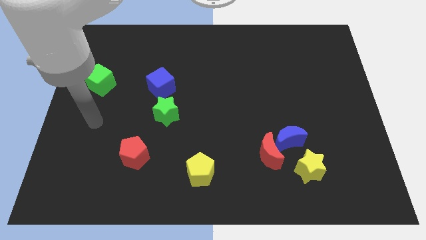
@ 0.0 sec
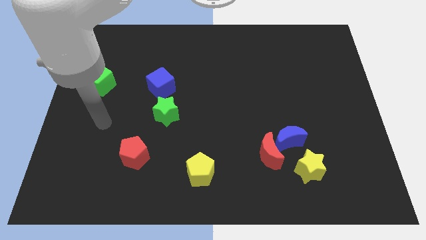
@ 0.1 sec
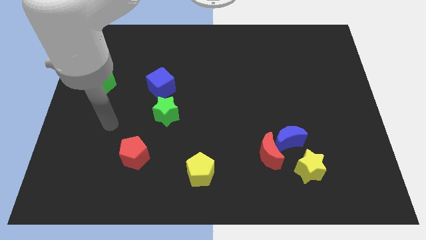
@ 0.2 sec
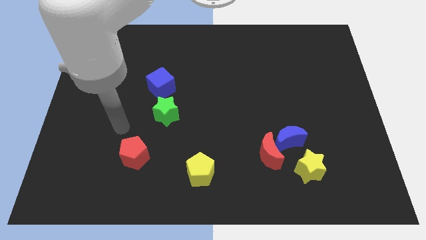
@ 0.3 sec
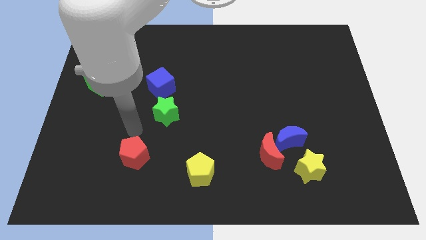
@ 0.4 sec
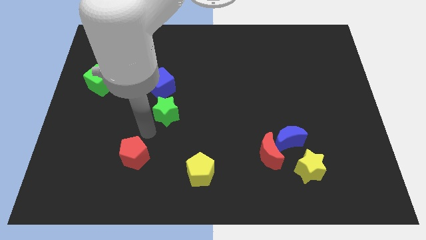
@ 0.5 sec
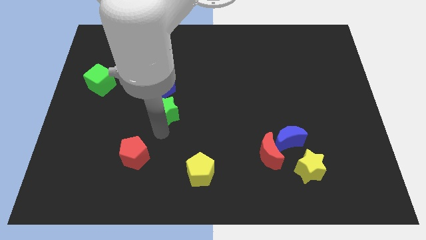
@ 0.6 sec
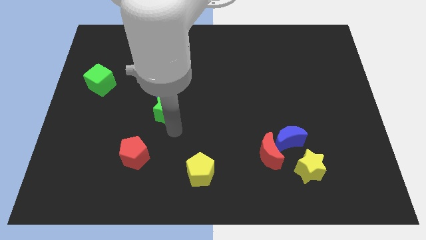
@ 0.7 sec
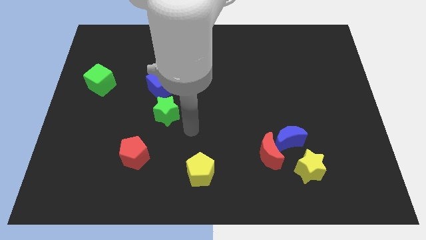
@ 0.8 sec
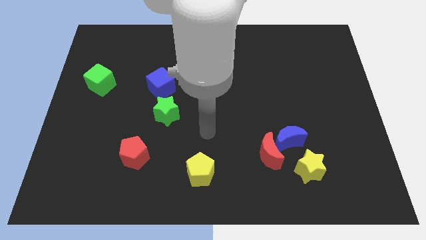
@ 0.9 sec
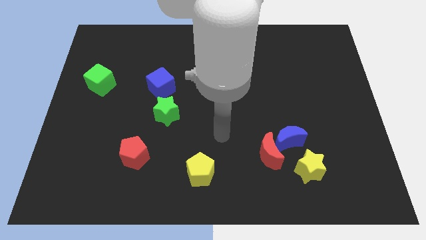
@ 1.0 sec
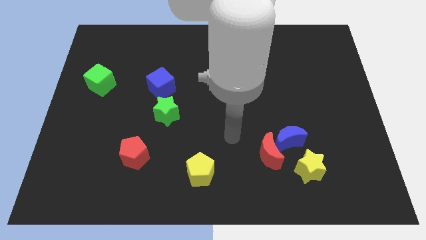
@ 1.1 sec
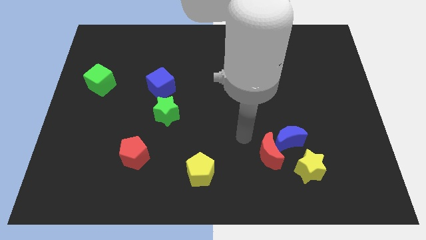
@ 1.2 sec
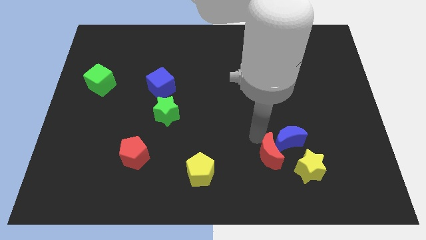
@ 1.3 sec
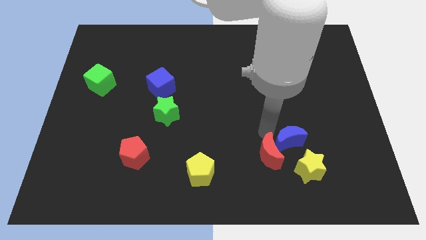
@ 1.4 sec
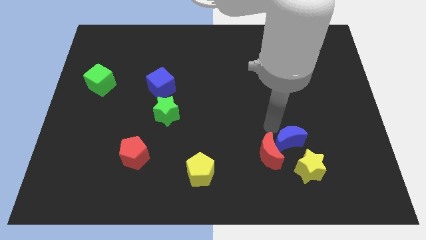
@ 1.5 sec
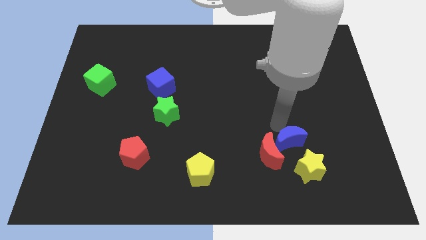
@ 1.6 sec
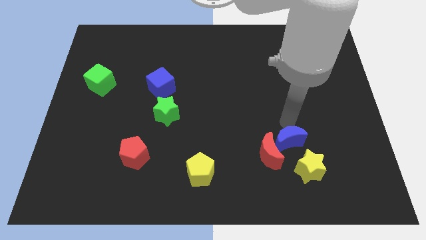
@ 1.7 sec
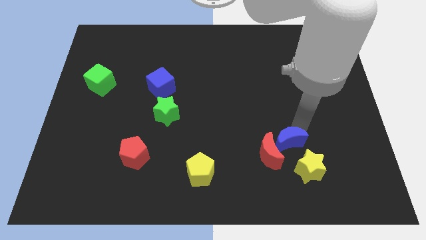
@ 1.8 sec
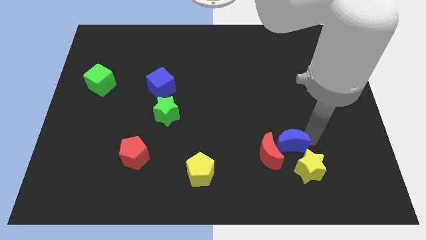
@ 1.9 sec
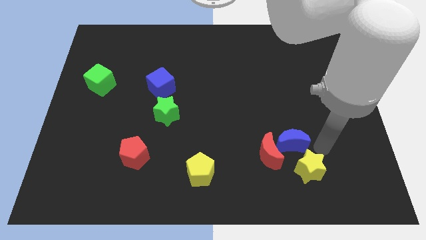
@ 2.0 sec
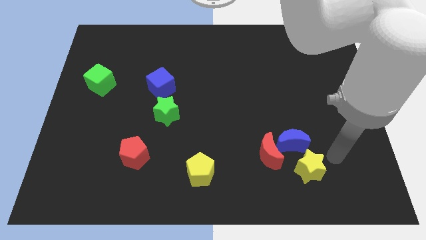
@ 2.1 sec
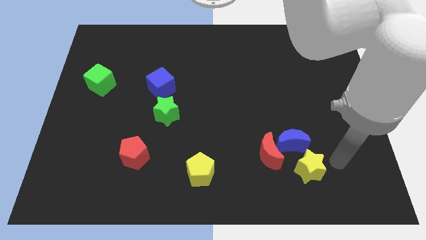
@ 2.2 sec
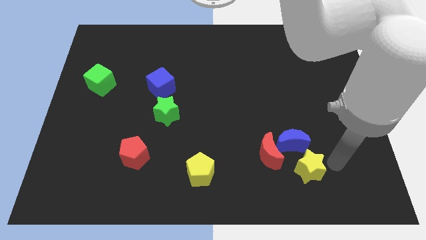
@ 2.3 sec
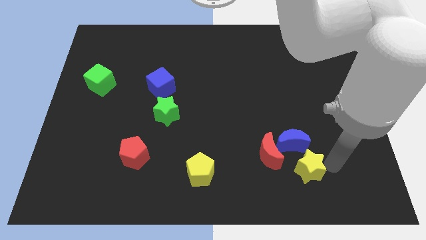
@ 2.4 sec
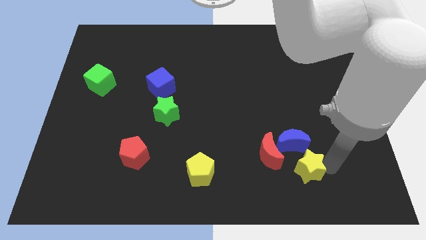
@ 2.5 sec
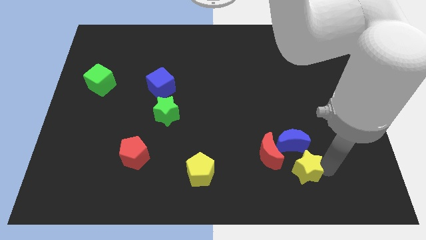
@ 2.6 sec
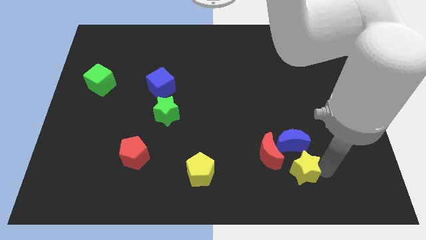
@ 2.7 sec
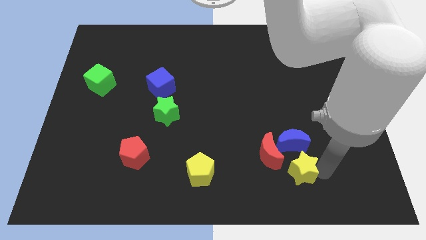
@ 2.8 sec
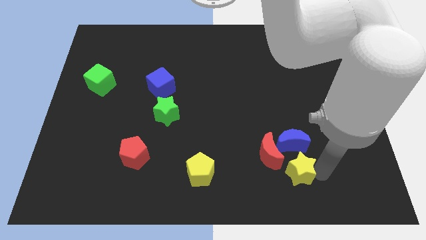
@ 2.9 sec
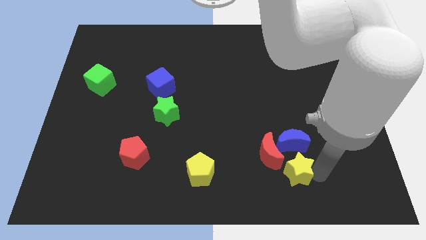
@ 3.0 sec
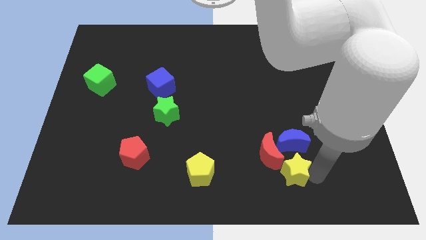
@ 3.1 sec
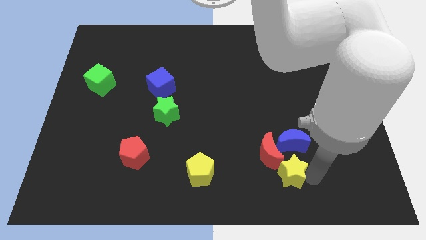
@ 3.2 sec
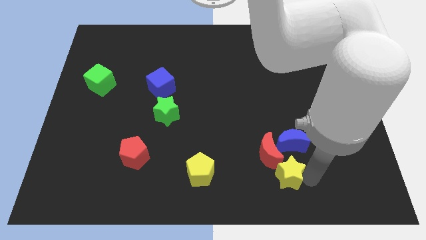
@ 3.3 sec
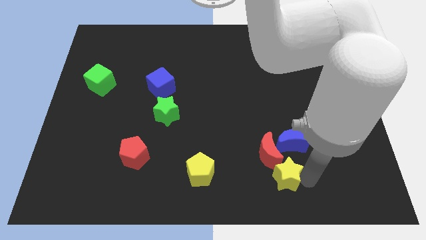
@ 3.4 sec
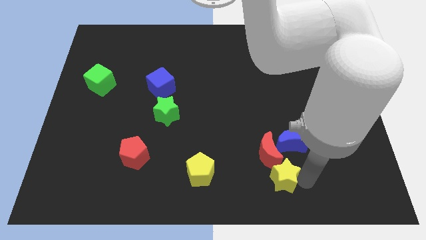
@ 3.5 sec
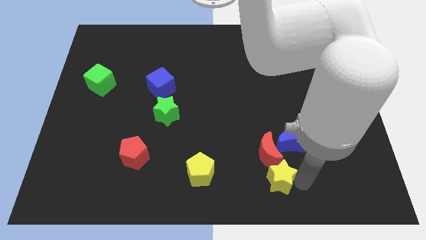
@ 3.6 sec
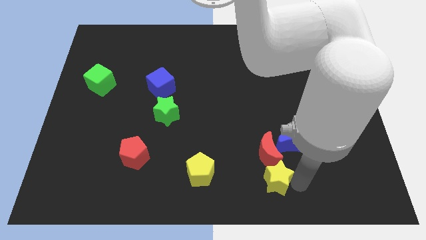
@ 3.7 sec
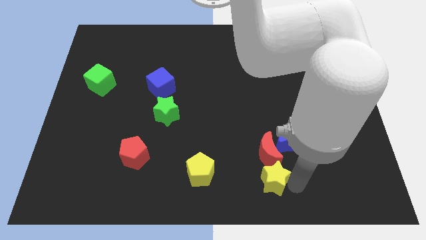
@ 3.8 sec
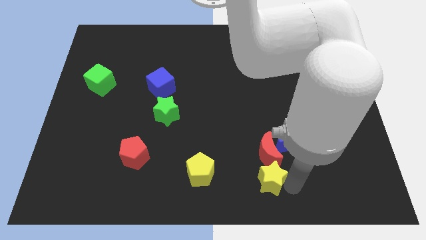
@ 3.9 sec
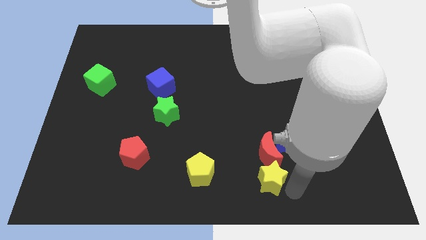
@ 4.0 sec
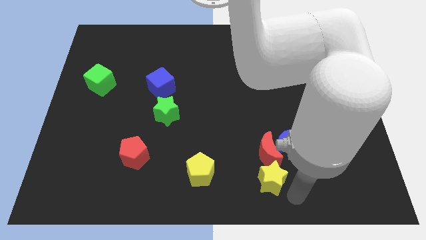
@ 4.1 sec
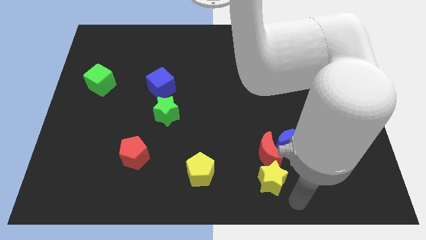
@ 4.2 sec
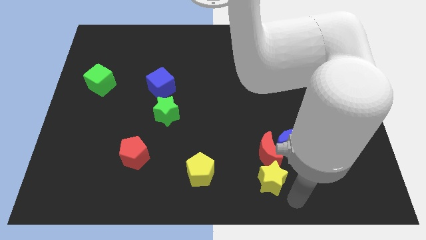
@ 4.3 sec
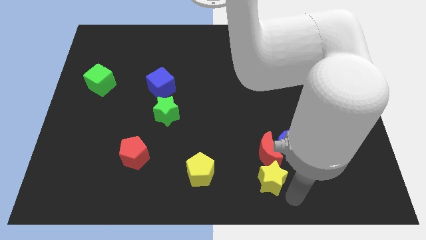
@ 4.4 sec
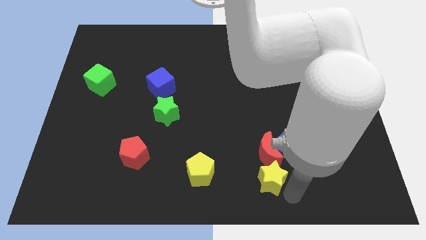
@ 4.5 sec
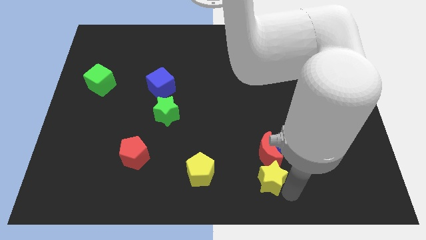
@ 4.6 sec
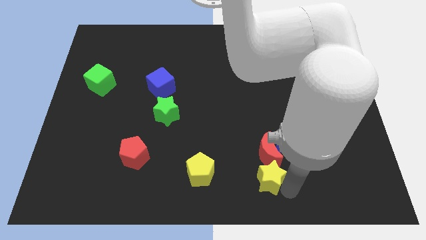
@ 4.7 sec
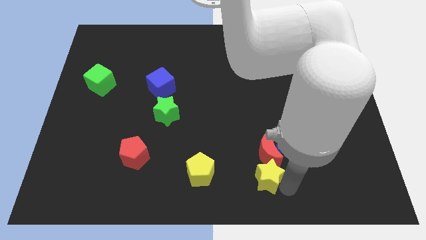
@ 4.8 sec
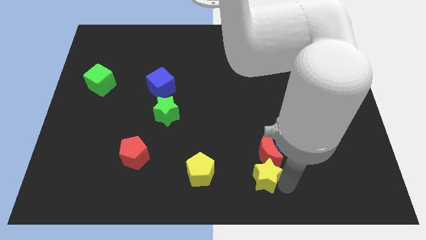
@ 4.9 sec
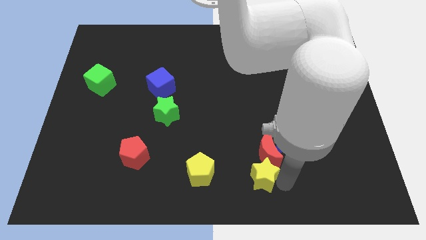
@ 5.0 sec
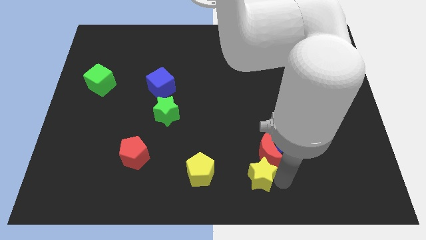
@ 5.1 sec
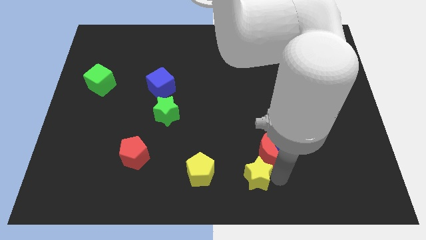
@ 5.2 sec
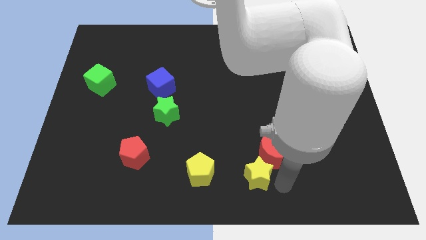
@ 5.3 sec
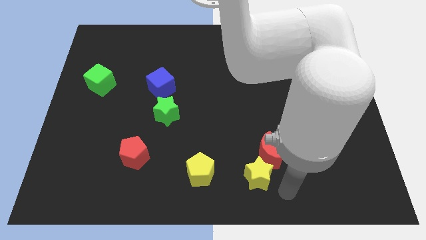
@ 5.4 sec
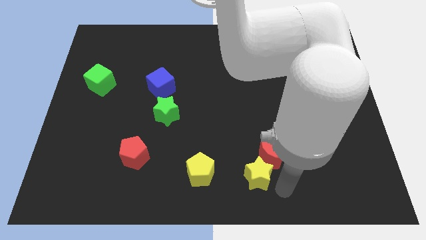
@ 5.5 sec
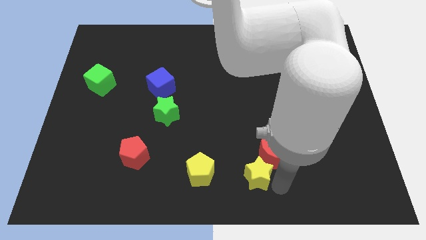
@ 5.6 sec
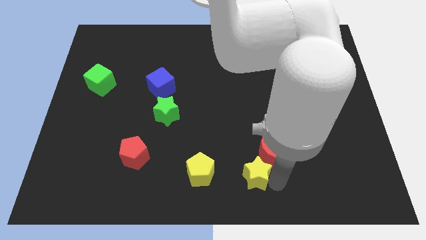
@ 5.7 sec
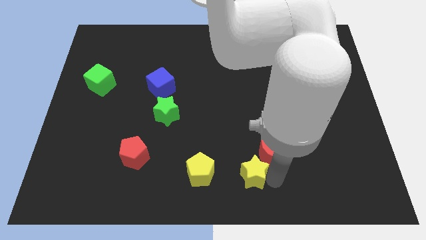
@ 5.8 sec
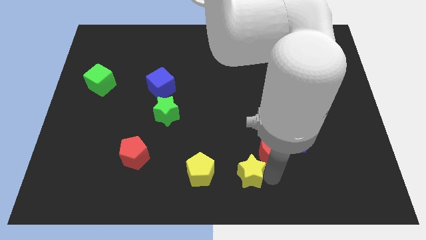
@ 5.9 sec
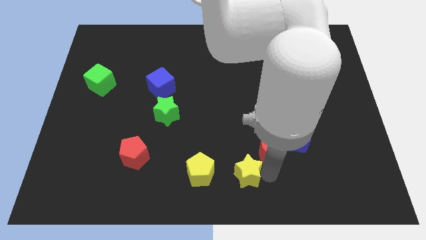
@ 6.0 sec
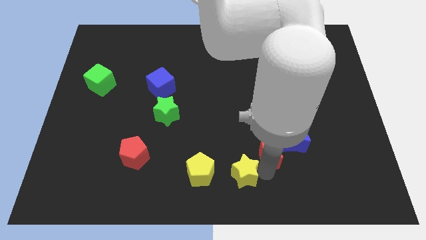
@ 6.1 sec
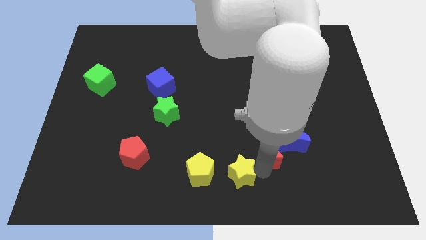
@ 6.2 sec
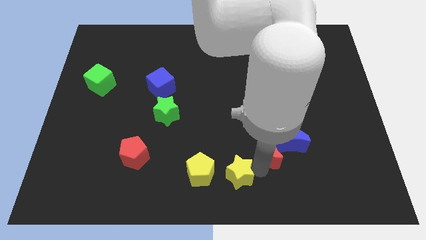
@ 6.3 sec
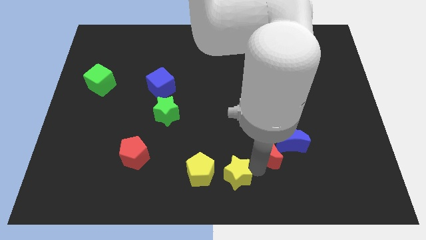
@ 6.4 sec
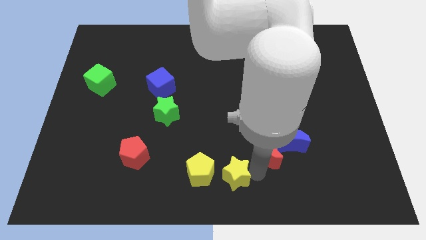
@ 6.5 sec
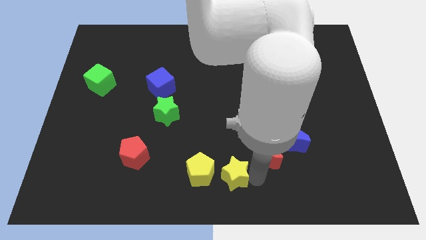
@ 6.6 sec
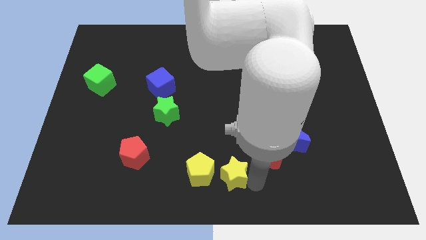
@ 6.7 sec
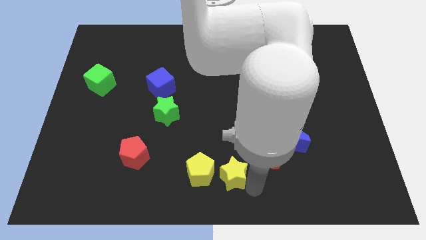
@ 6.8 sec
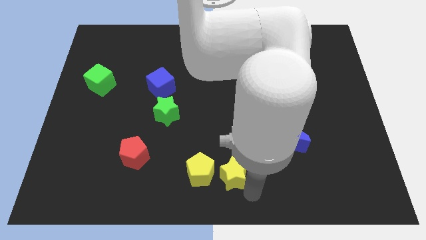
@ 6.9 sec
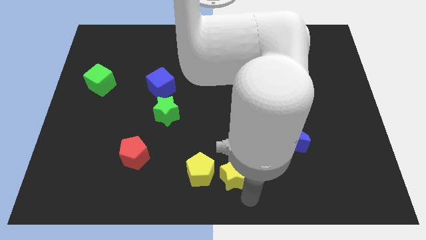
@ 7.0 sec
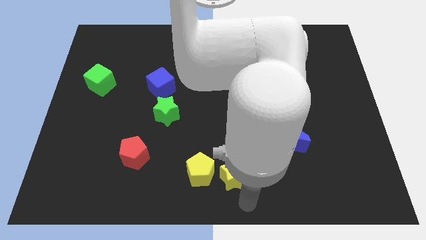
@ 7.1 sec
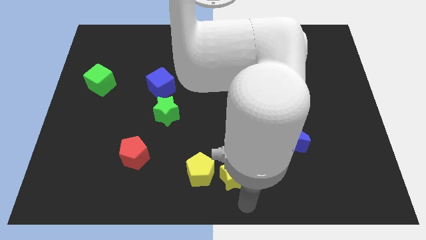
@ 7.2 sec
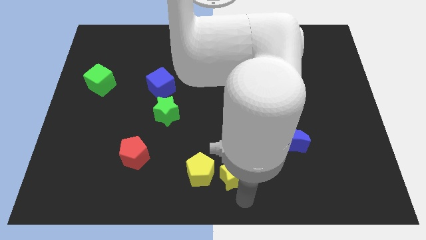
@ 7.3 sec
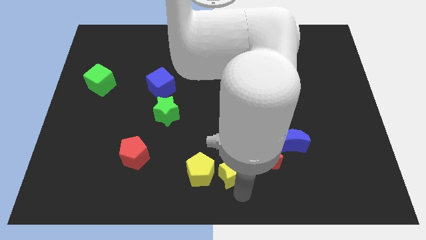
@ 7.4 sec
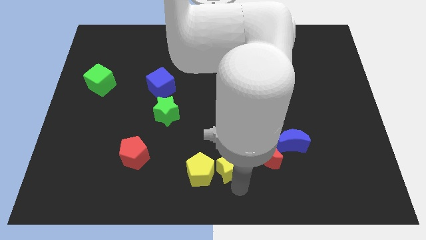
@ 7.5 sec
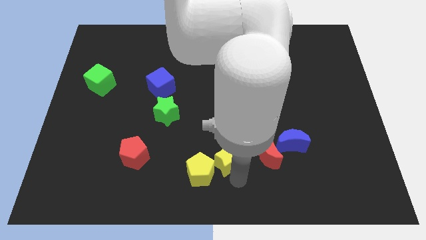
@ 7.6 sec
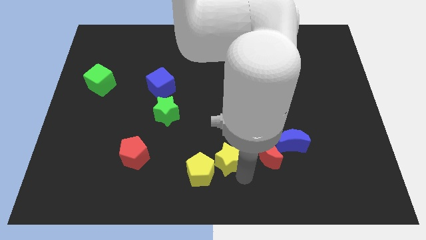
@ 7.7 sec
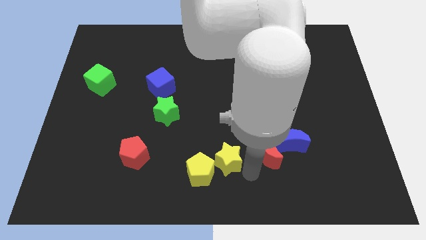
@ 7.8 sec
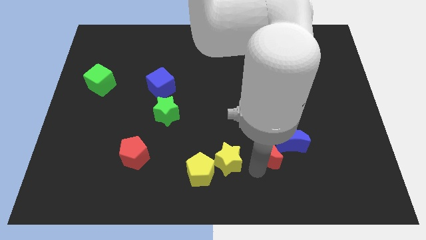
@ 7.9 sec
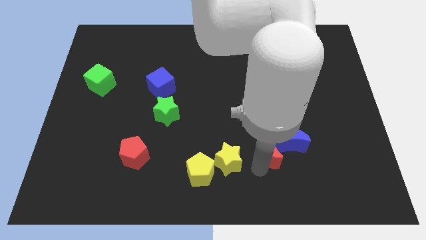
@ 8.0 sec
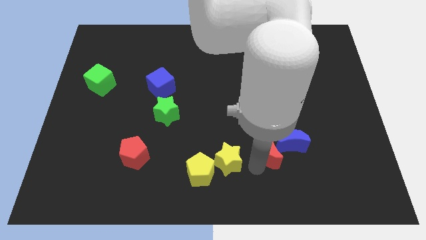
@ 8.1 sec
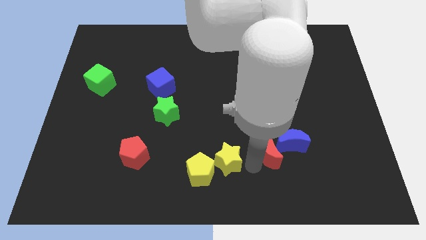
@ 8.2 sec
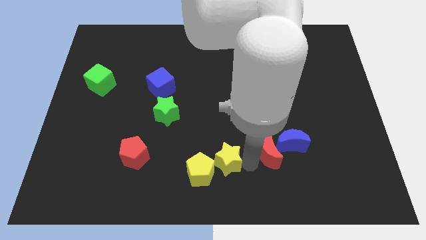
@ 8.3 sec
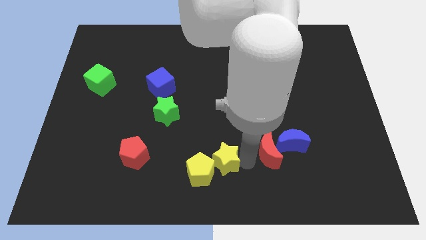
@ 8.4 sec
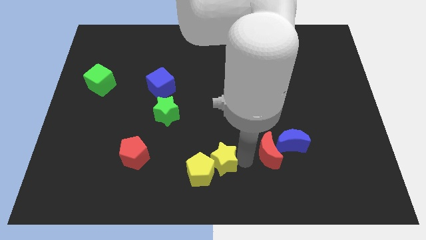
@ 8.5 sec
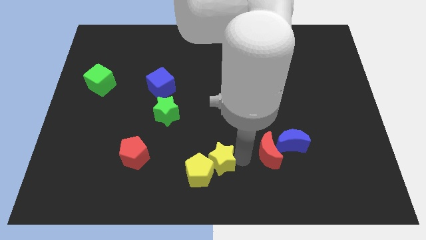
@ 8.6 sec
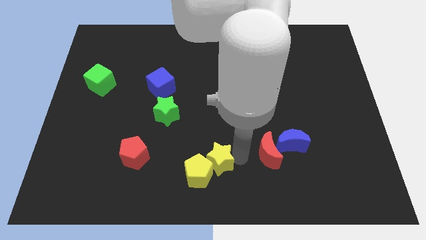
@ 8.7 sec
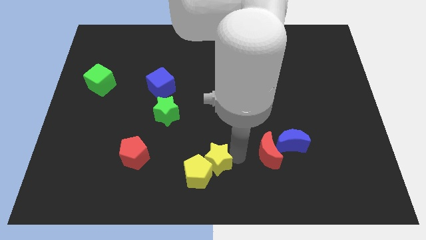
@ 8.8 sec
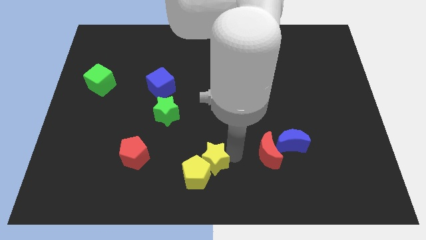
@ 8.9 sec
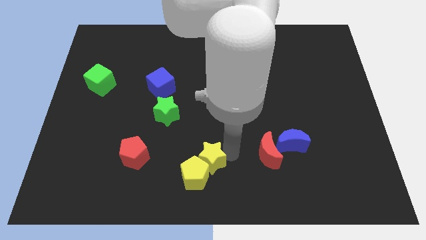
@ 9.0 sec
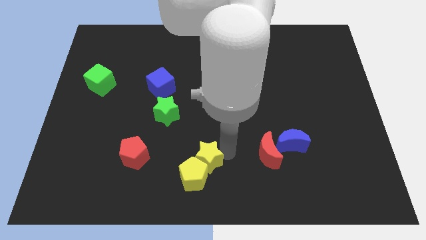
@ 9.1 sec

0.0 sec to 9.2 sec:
put the yellow star just right of the red pentagon
